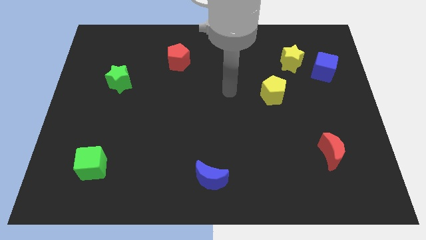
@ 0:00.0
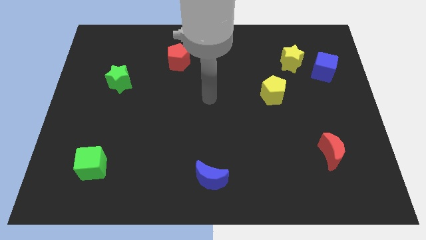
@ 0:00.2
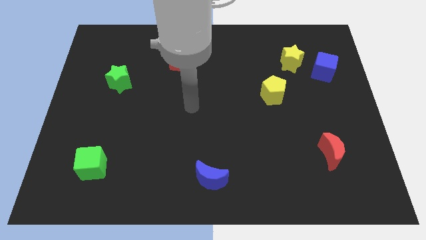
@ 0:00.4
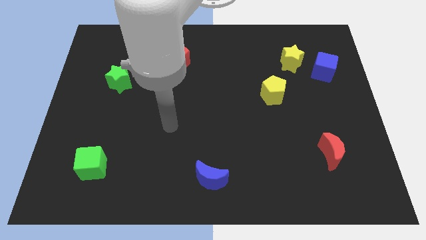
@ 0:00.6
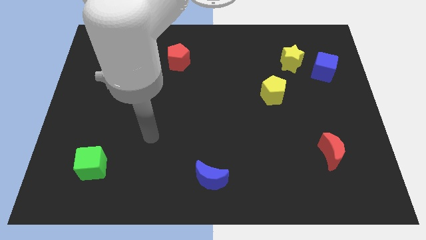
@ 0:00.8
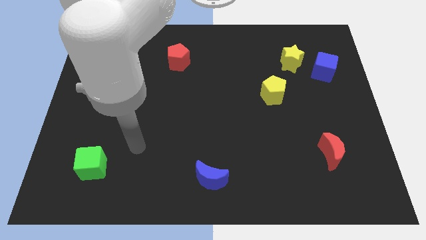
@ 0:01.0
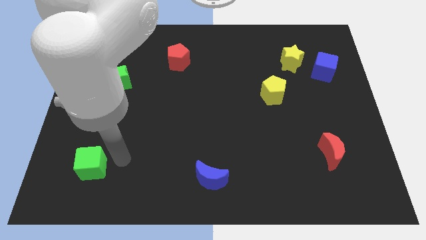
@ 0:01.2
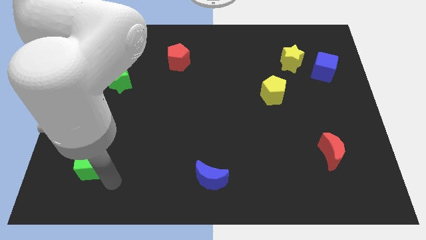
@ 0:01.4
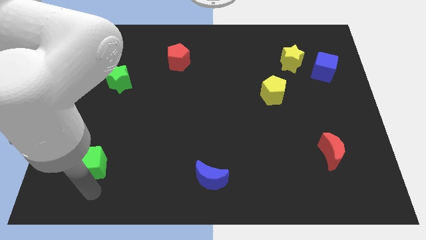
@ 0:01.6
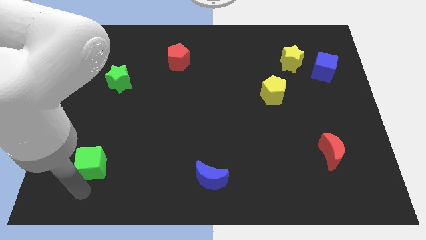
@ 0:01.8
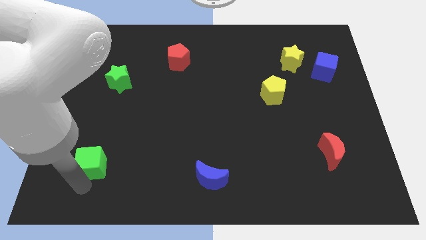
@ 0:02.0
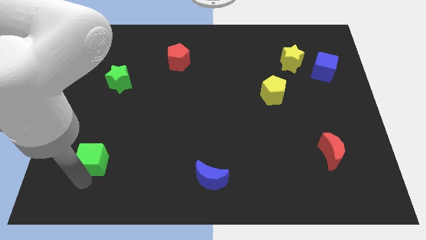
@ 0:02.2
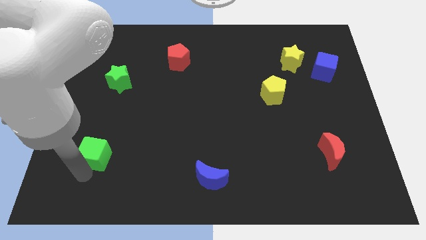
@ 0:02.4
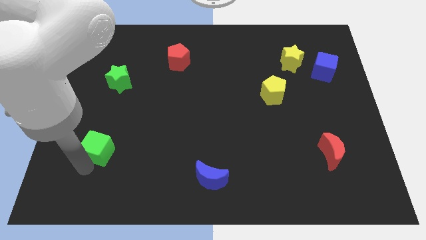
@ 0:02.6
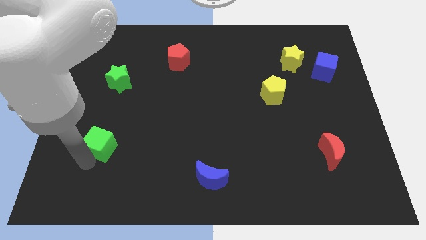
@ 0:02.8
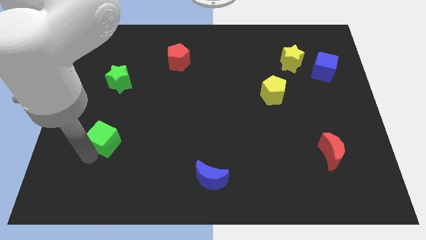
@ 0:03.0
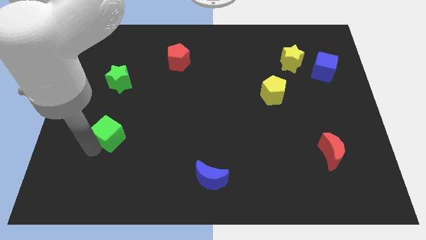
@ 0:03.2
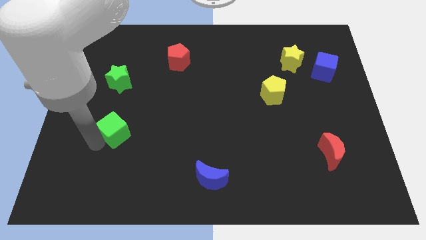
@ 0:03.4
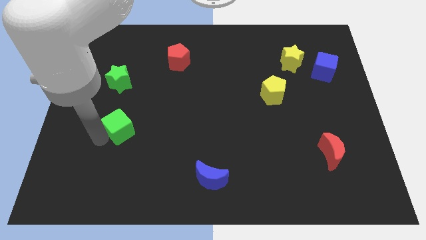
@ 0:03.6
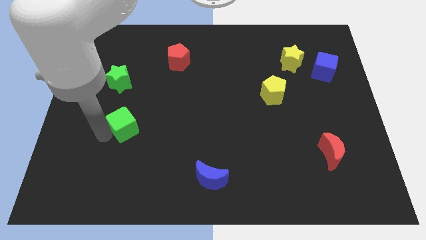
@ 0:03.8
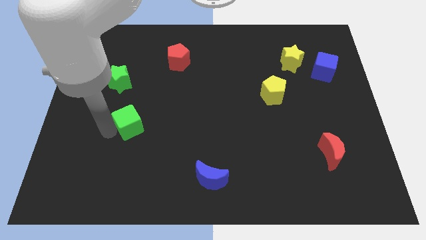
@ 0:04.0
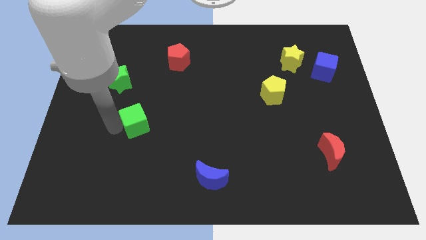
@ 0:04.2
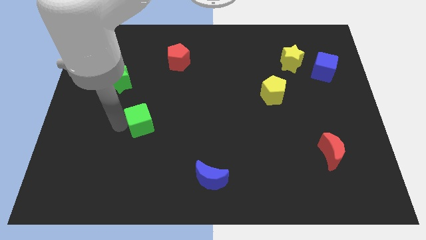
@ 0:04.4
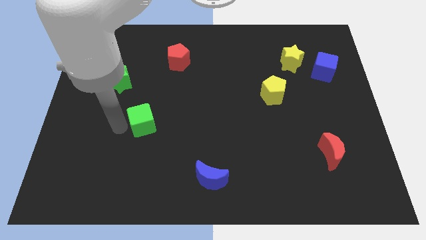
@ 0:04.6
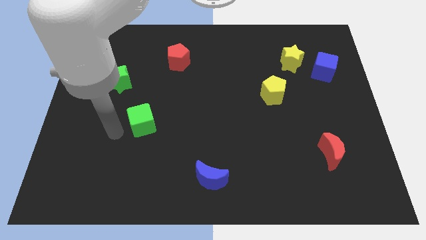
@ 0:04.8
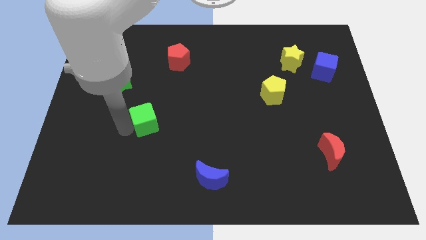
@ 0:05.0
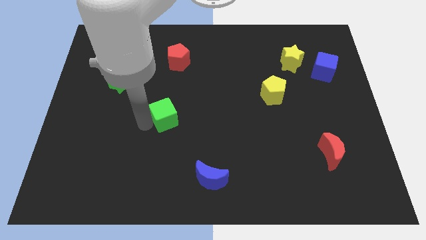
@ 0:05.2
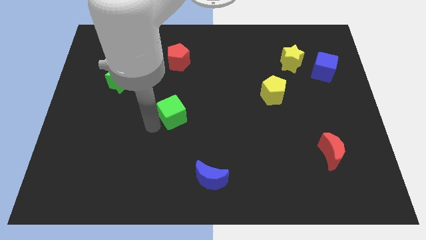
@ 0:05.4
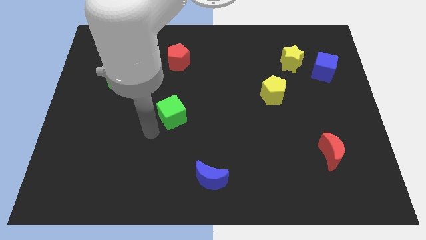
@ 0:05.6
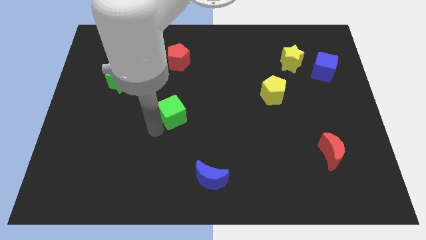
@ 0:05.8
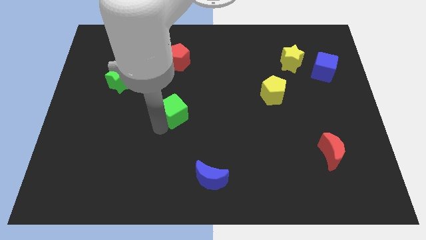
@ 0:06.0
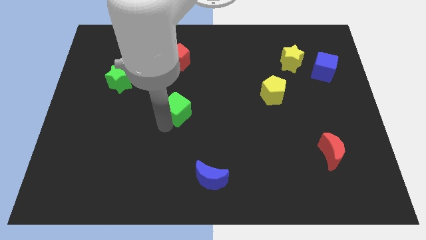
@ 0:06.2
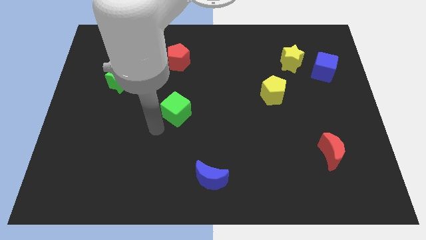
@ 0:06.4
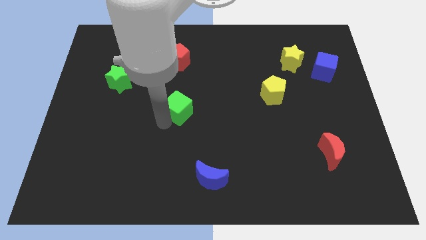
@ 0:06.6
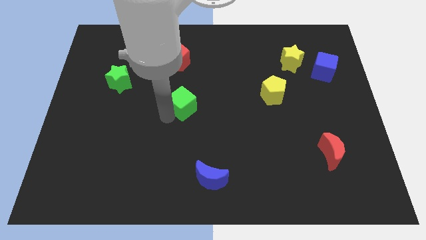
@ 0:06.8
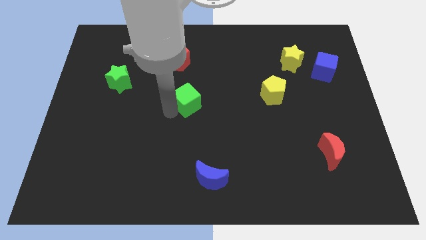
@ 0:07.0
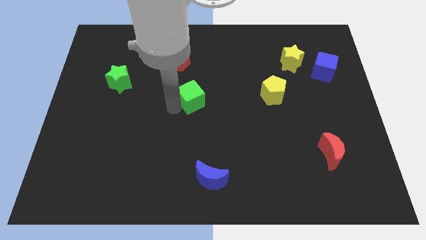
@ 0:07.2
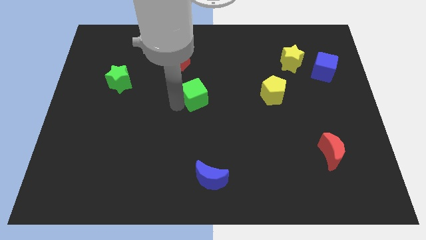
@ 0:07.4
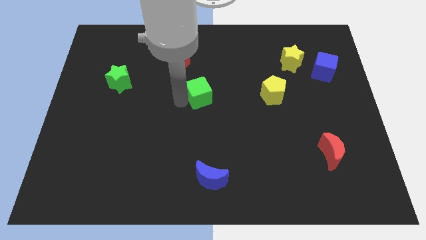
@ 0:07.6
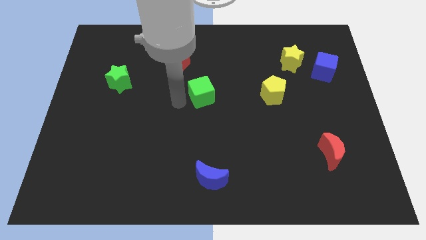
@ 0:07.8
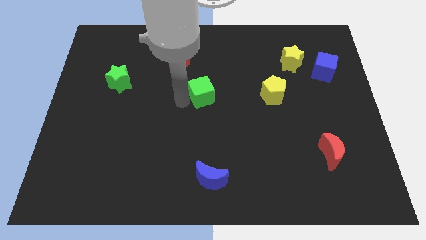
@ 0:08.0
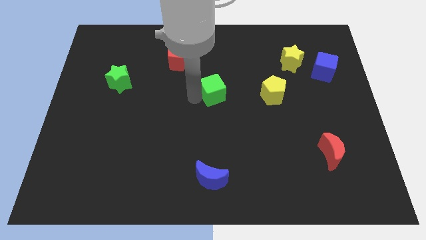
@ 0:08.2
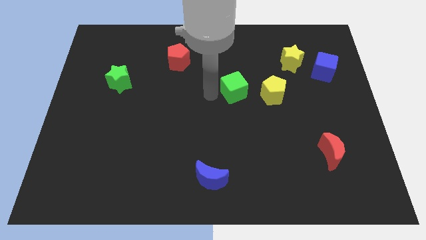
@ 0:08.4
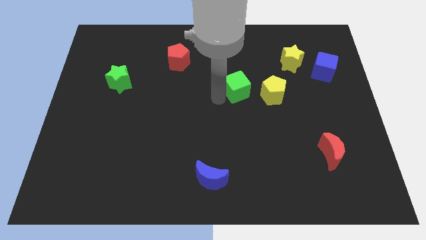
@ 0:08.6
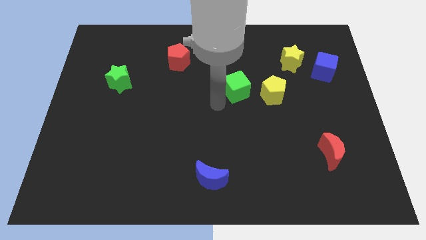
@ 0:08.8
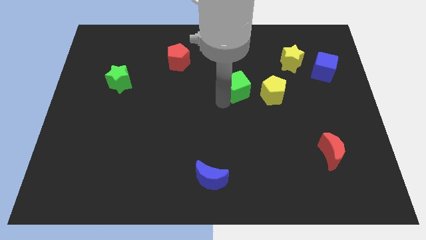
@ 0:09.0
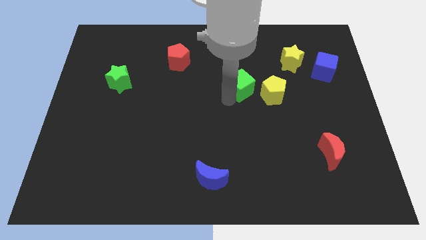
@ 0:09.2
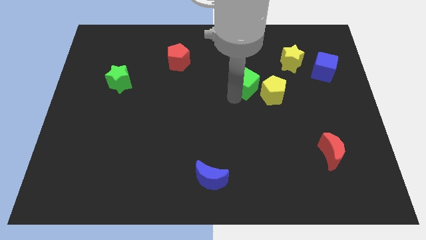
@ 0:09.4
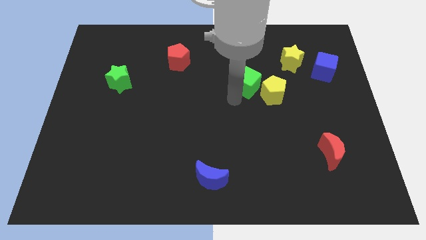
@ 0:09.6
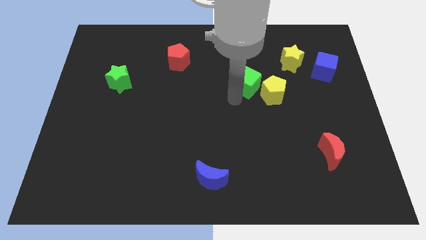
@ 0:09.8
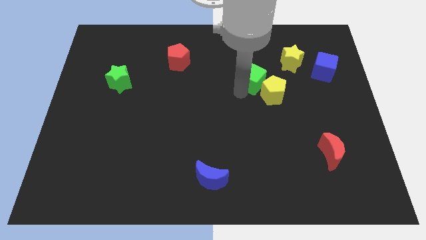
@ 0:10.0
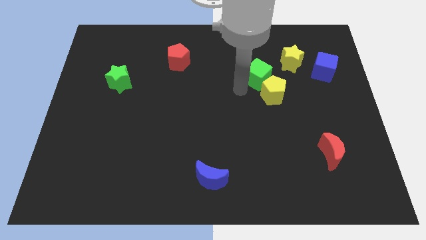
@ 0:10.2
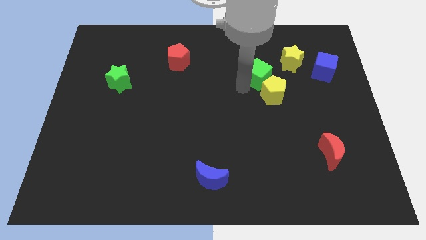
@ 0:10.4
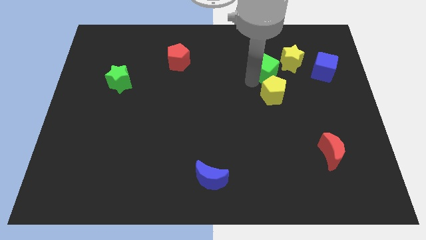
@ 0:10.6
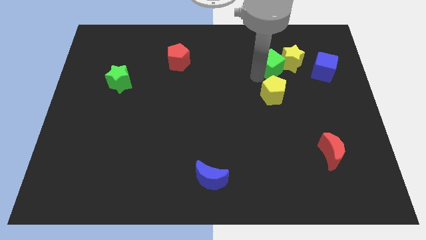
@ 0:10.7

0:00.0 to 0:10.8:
move the green cube to the yellow star

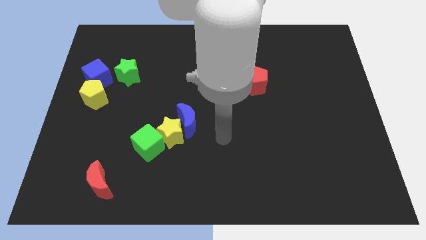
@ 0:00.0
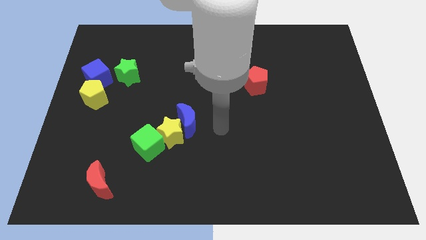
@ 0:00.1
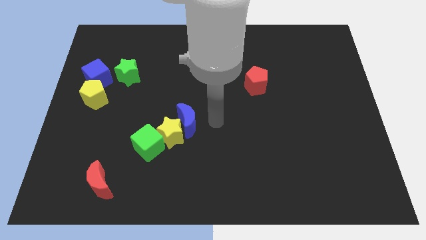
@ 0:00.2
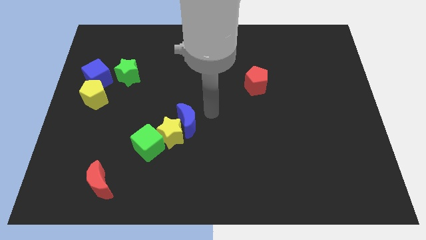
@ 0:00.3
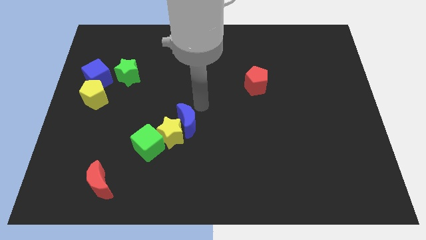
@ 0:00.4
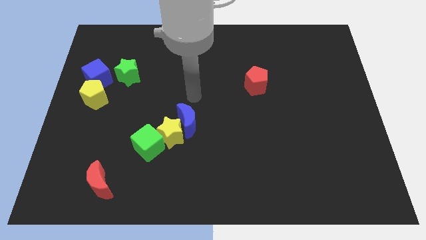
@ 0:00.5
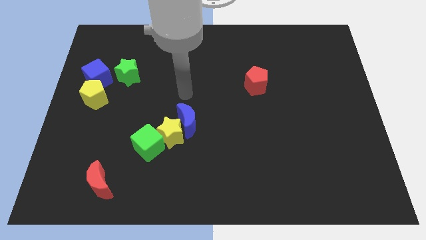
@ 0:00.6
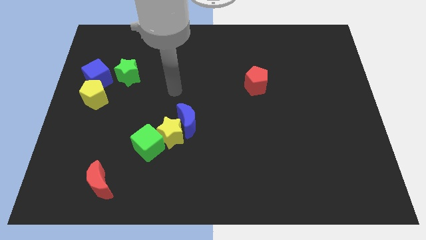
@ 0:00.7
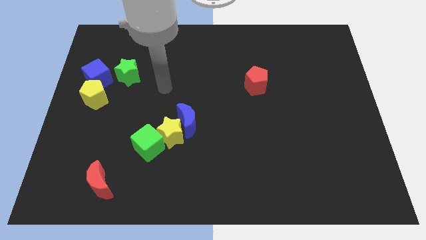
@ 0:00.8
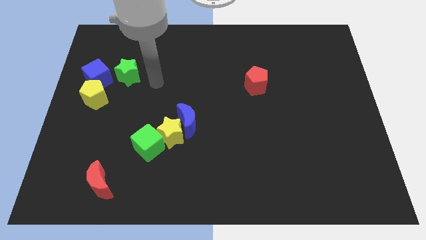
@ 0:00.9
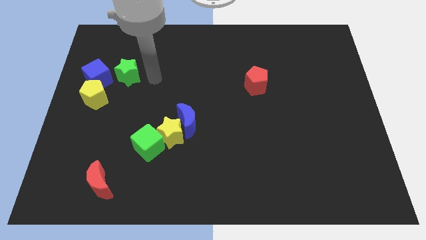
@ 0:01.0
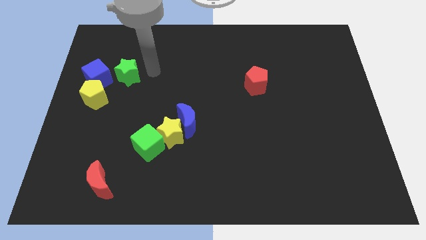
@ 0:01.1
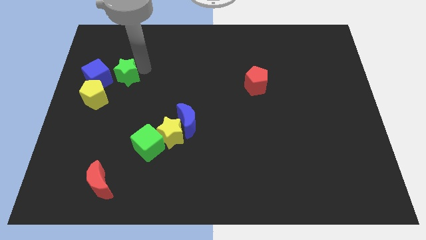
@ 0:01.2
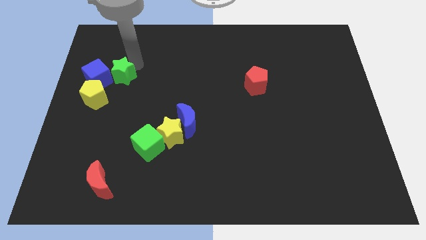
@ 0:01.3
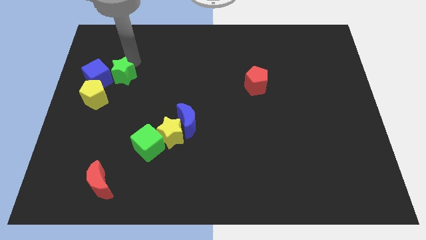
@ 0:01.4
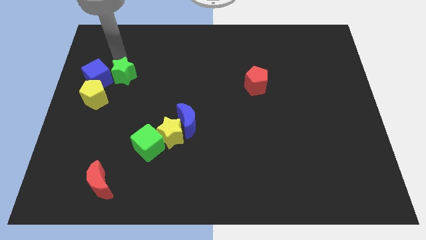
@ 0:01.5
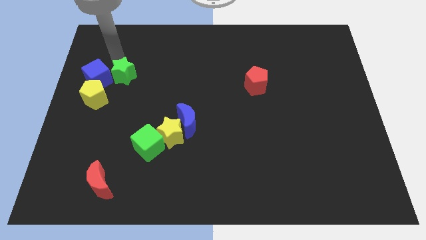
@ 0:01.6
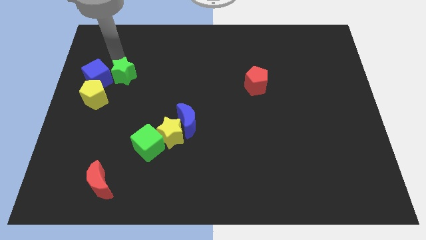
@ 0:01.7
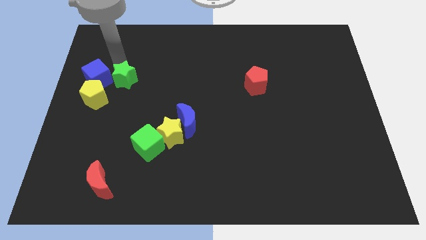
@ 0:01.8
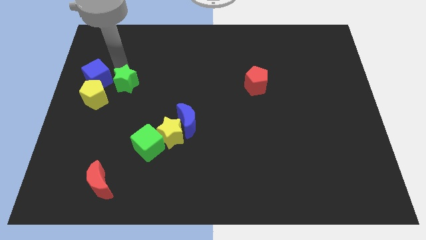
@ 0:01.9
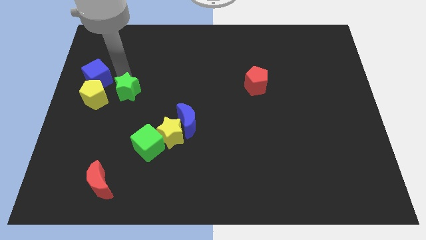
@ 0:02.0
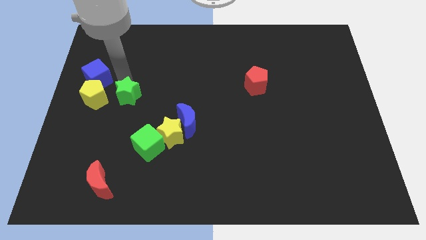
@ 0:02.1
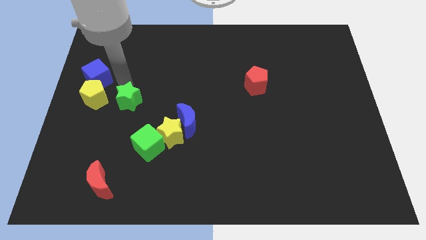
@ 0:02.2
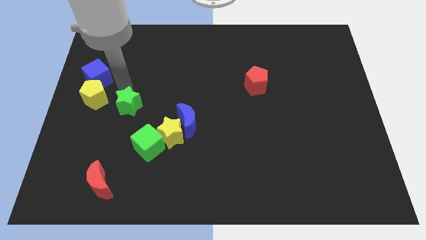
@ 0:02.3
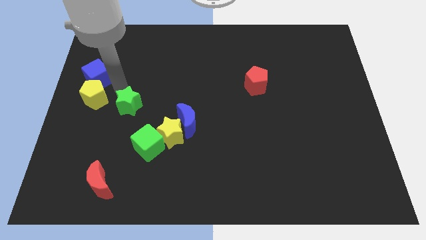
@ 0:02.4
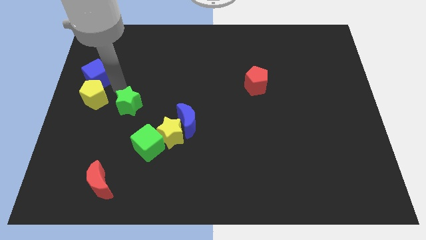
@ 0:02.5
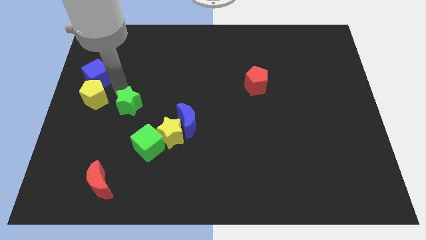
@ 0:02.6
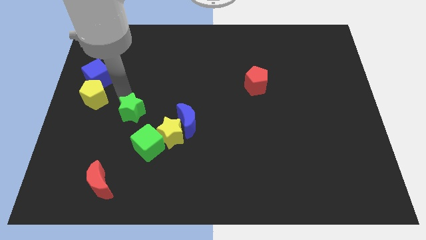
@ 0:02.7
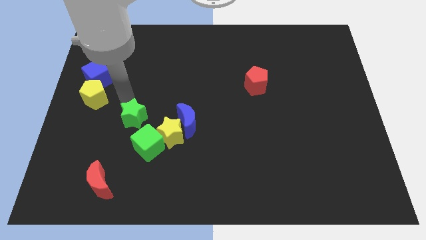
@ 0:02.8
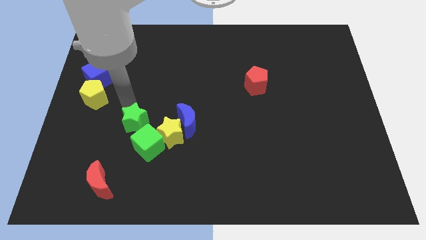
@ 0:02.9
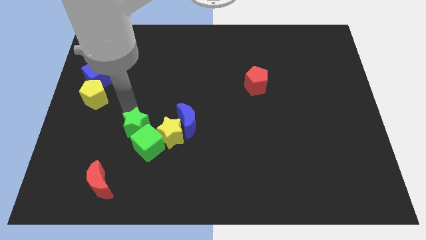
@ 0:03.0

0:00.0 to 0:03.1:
slide the green star close to the green cube
